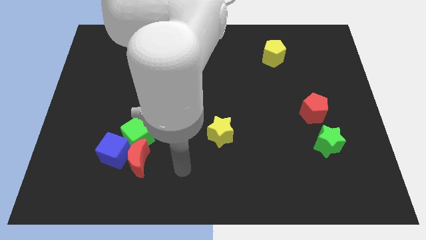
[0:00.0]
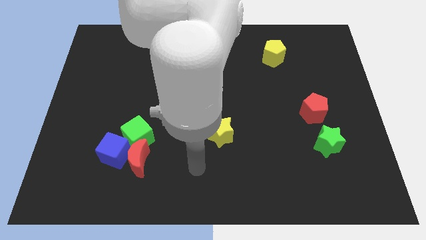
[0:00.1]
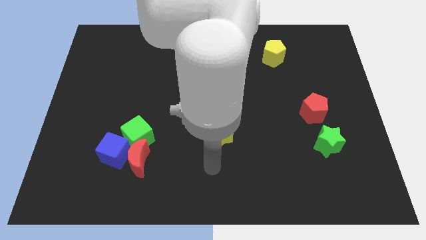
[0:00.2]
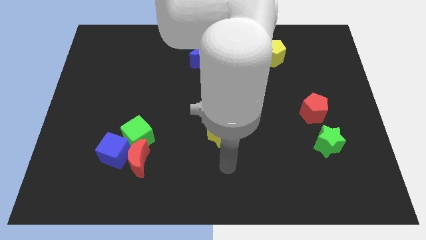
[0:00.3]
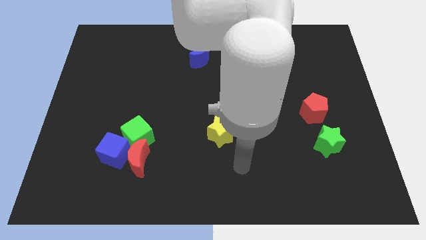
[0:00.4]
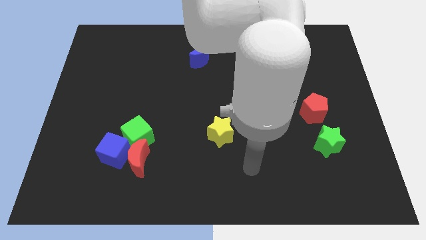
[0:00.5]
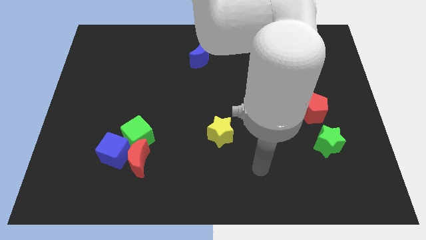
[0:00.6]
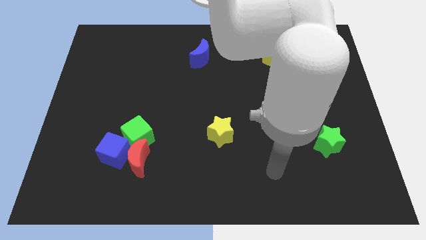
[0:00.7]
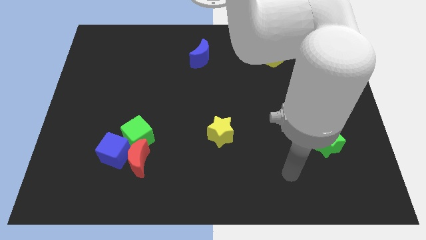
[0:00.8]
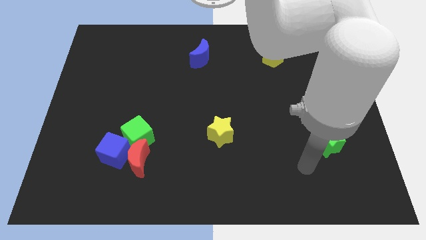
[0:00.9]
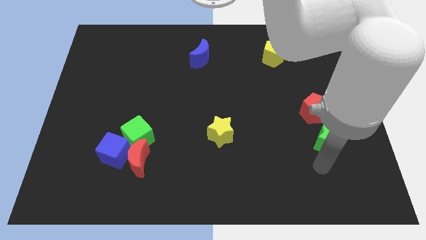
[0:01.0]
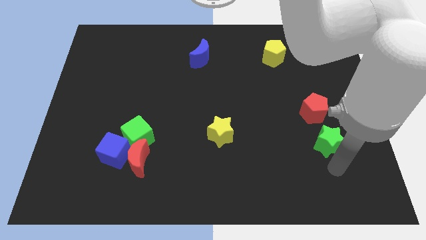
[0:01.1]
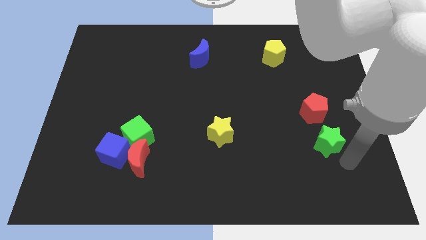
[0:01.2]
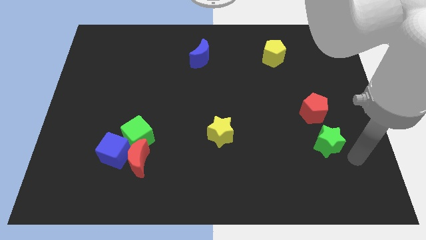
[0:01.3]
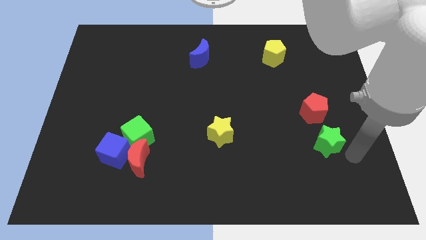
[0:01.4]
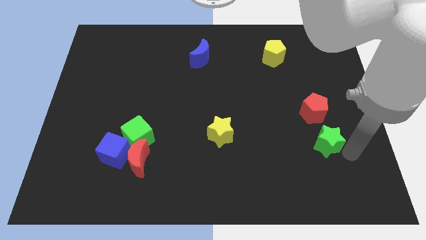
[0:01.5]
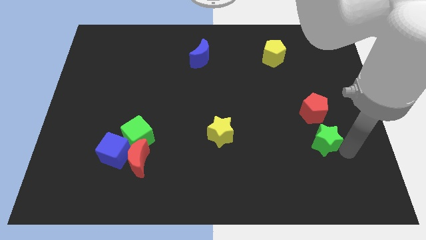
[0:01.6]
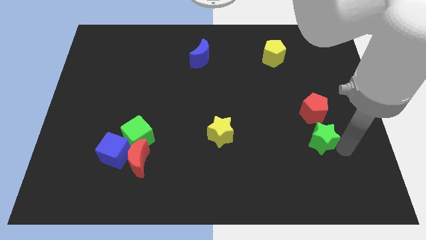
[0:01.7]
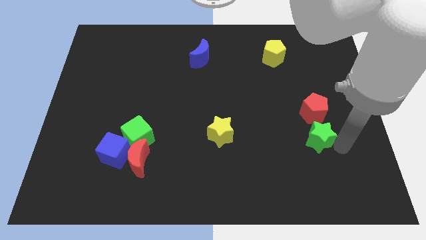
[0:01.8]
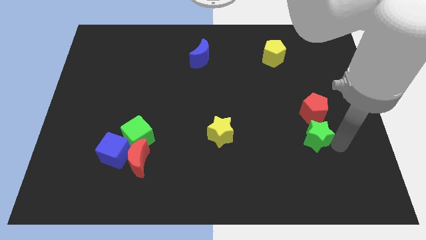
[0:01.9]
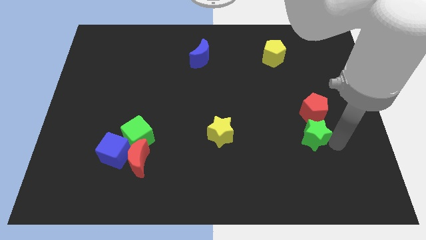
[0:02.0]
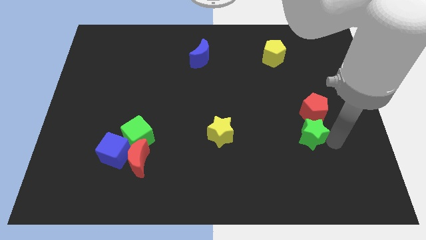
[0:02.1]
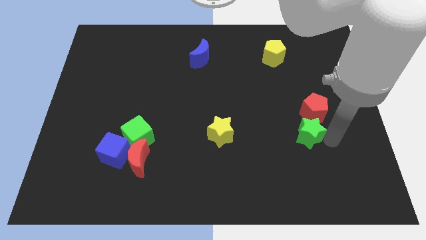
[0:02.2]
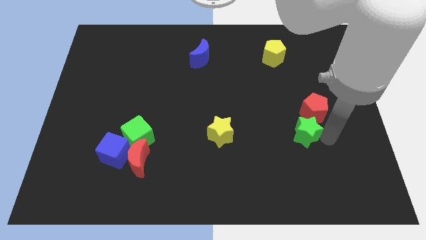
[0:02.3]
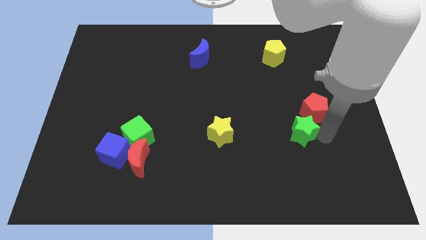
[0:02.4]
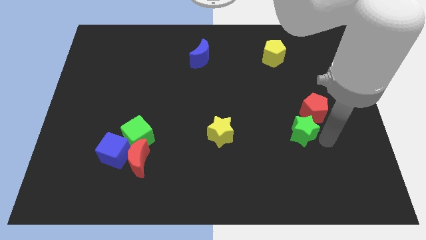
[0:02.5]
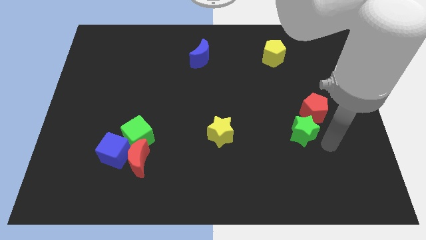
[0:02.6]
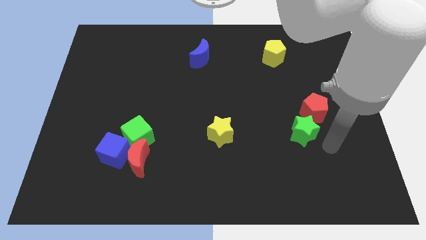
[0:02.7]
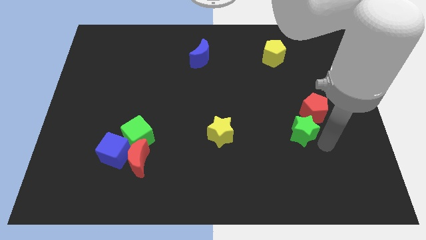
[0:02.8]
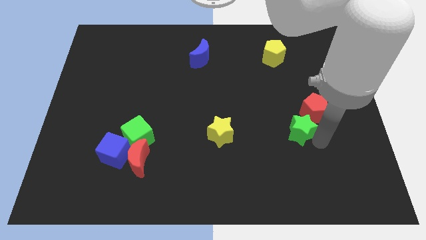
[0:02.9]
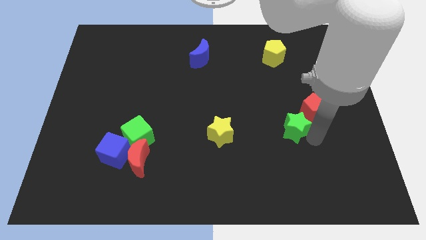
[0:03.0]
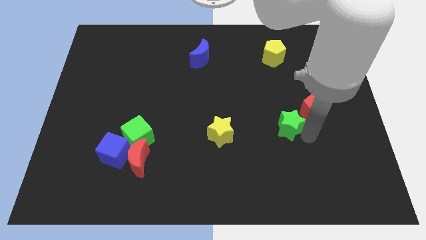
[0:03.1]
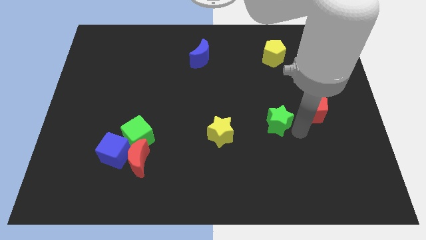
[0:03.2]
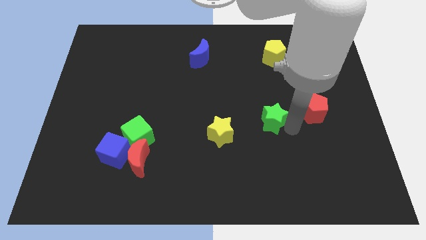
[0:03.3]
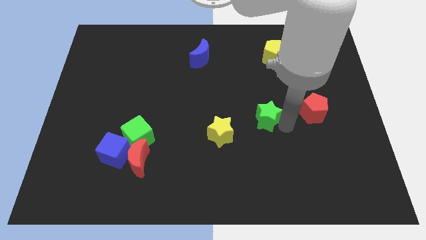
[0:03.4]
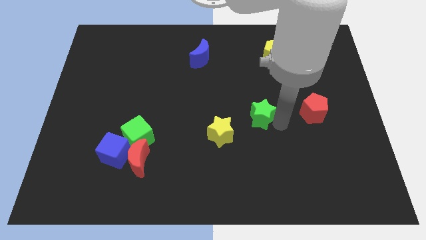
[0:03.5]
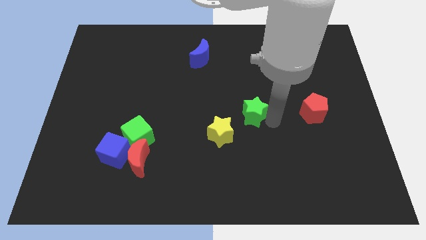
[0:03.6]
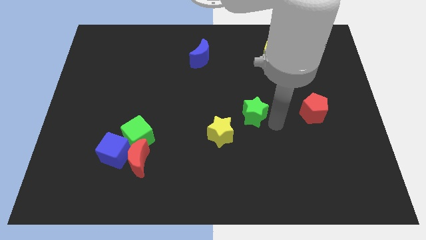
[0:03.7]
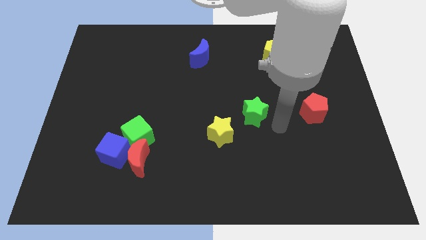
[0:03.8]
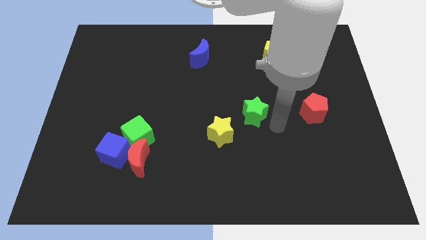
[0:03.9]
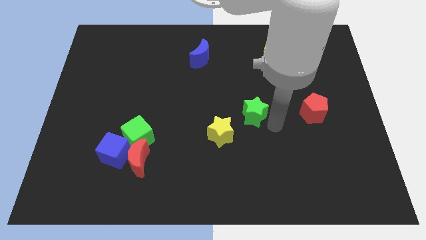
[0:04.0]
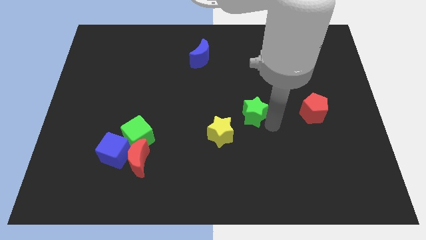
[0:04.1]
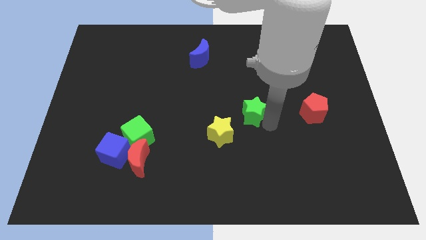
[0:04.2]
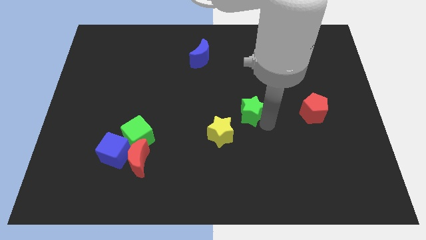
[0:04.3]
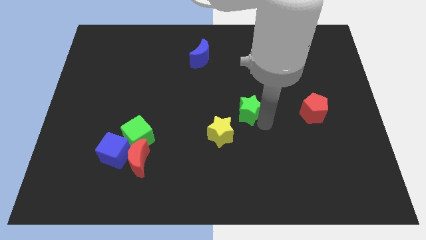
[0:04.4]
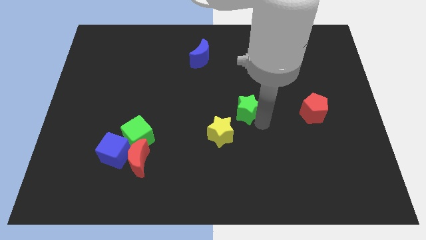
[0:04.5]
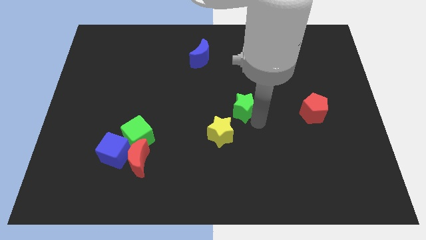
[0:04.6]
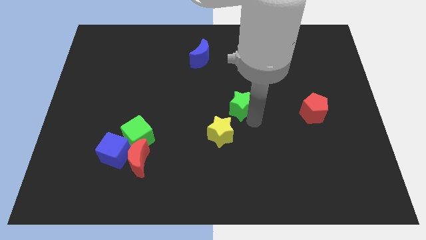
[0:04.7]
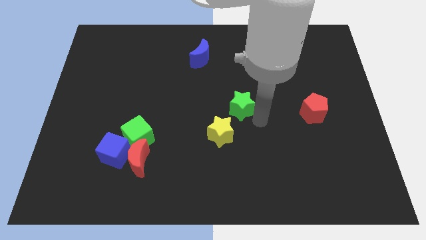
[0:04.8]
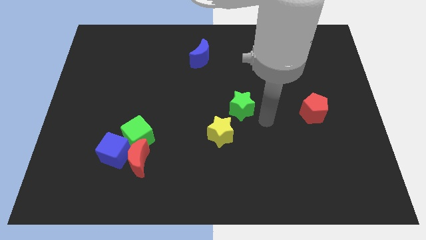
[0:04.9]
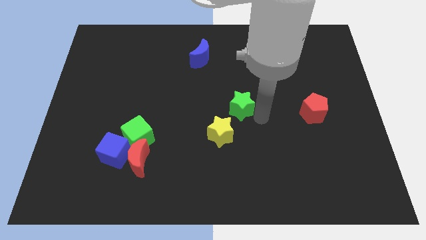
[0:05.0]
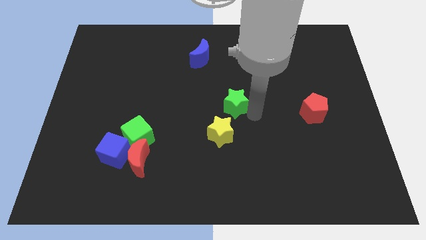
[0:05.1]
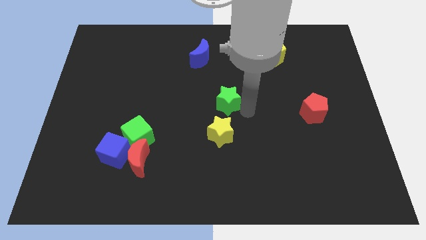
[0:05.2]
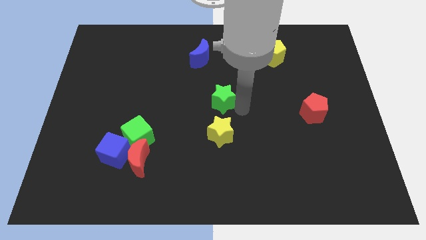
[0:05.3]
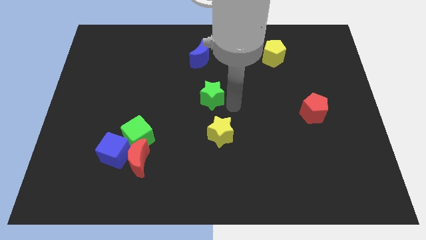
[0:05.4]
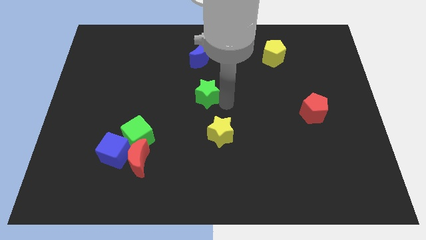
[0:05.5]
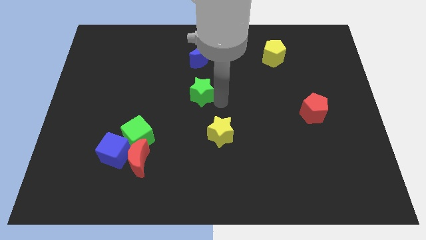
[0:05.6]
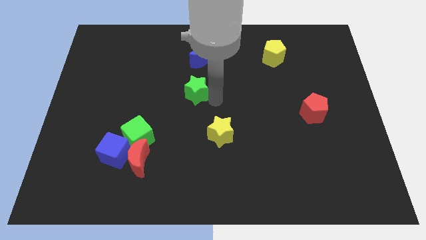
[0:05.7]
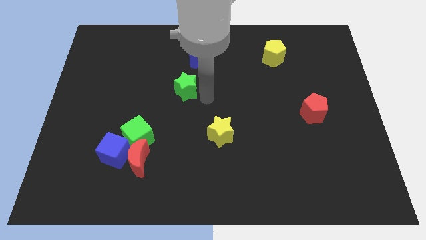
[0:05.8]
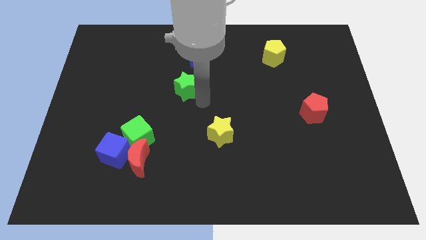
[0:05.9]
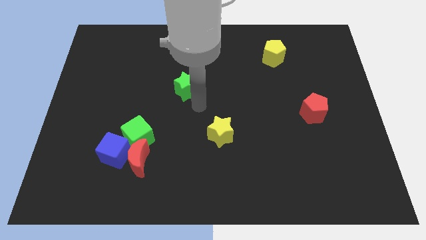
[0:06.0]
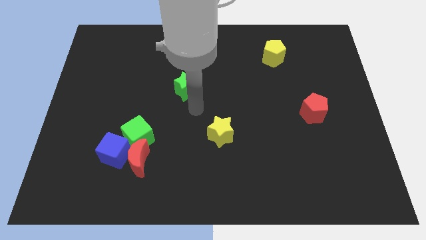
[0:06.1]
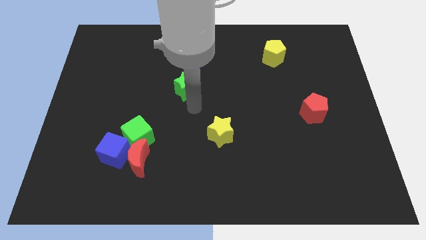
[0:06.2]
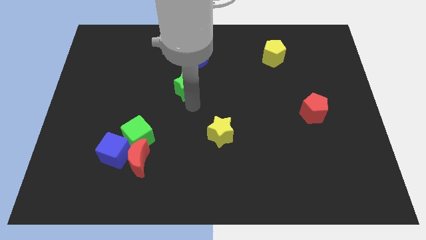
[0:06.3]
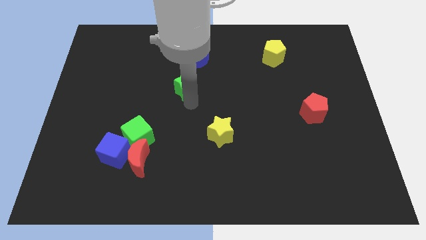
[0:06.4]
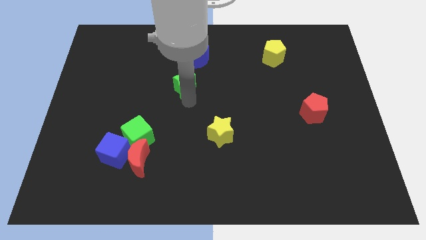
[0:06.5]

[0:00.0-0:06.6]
slide the green star to the bottom left of the blue moon
